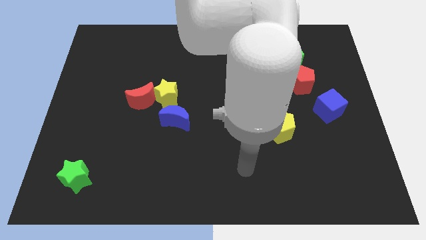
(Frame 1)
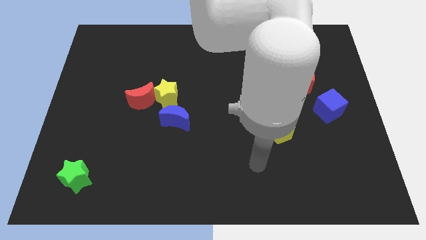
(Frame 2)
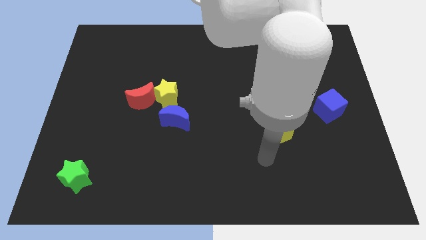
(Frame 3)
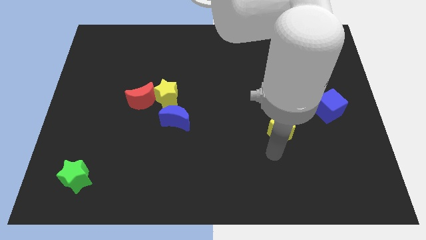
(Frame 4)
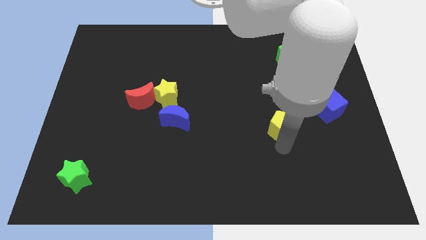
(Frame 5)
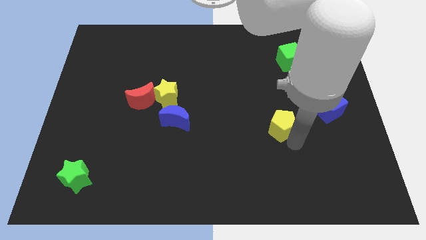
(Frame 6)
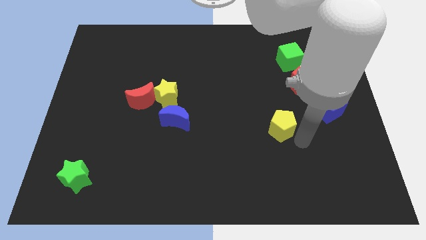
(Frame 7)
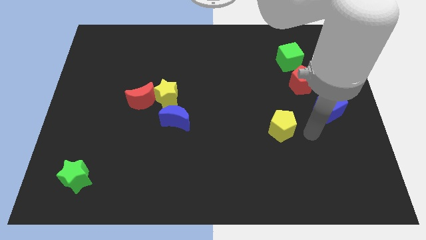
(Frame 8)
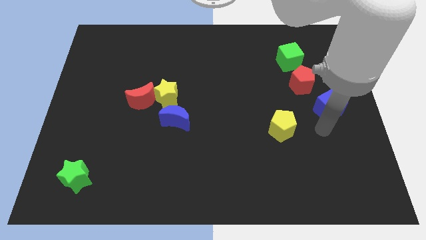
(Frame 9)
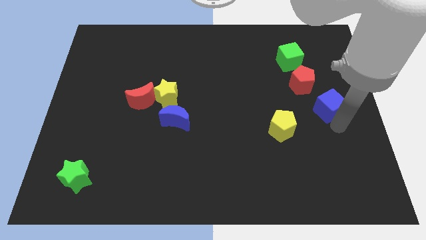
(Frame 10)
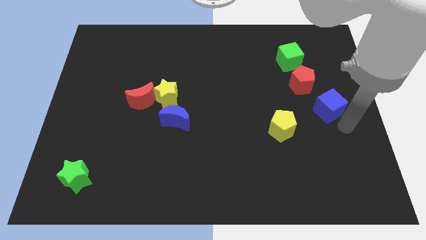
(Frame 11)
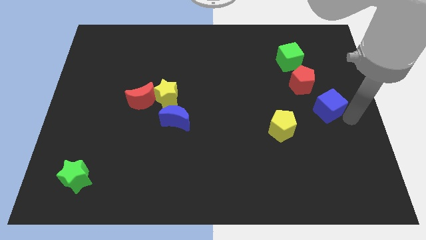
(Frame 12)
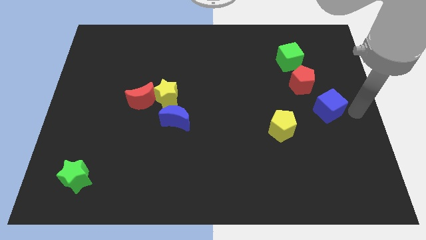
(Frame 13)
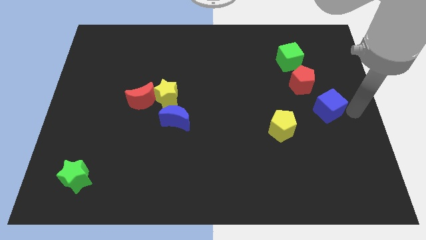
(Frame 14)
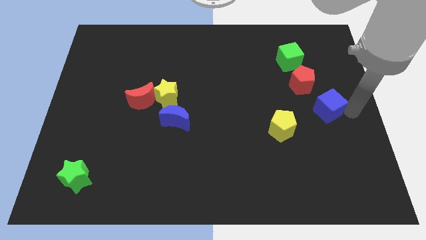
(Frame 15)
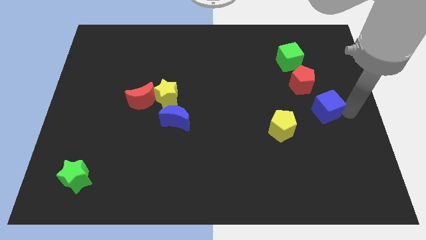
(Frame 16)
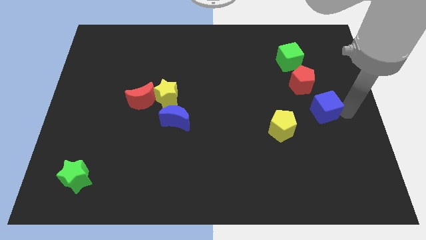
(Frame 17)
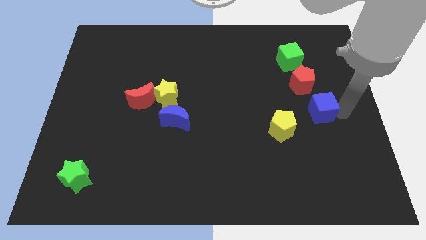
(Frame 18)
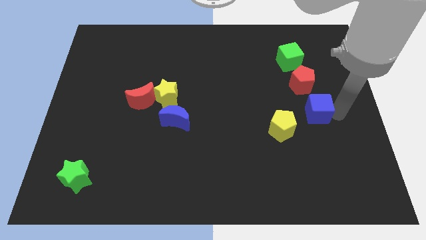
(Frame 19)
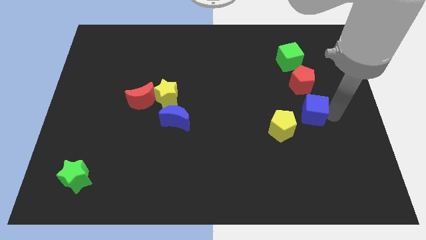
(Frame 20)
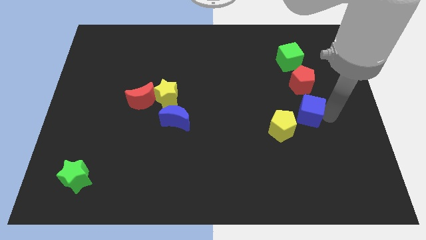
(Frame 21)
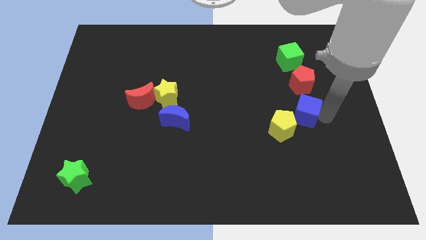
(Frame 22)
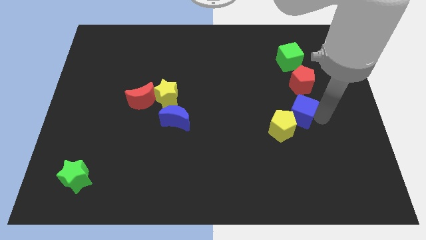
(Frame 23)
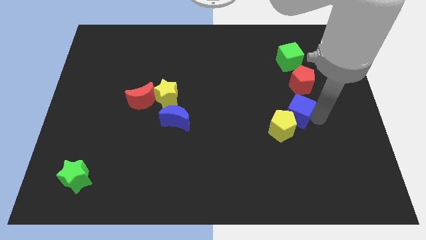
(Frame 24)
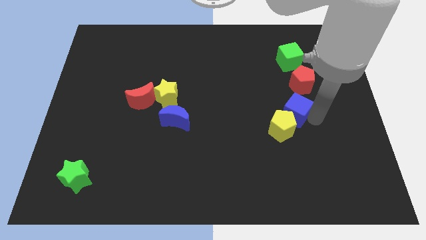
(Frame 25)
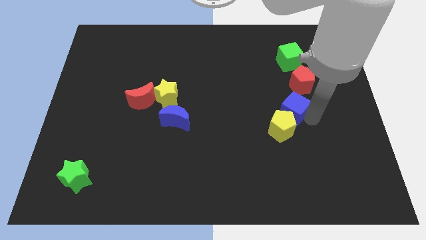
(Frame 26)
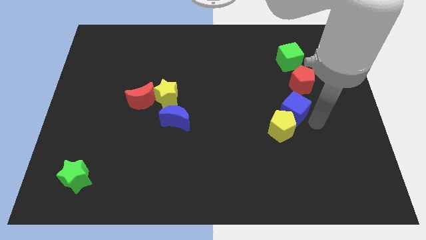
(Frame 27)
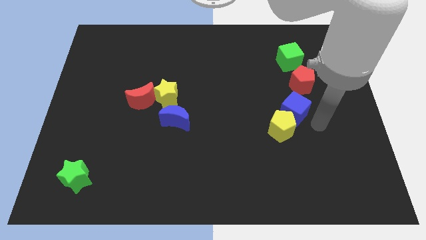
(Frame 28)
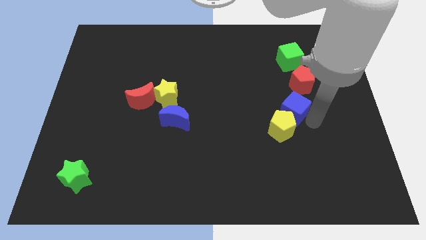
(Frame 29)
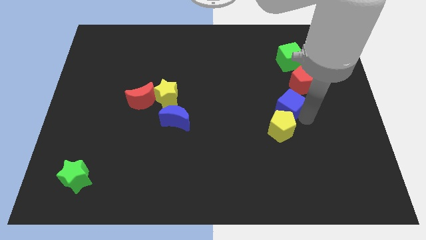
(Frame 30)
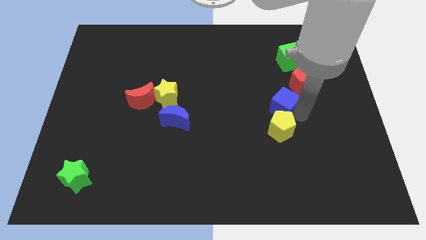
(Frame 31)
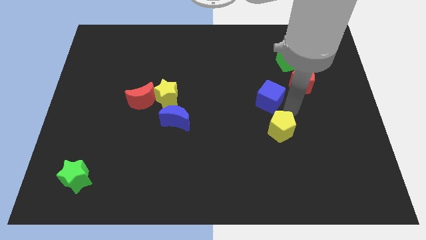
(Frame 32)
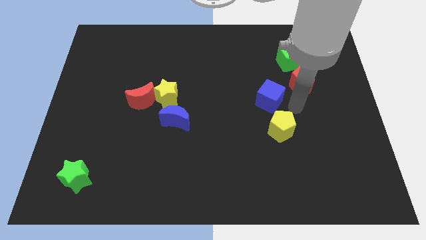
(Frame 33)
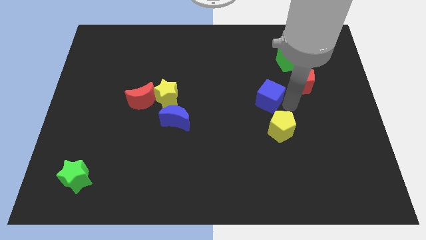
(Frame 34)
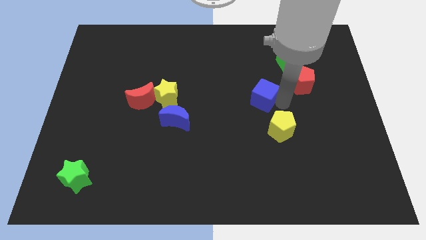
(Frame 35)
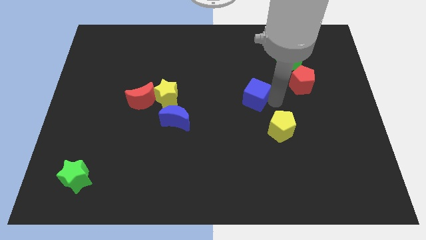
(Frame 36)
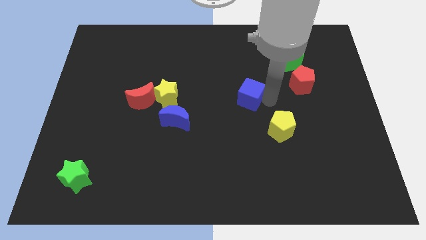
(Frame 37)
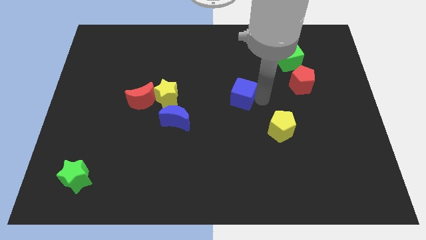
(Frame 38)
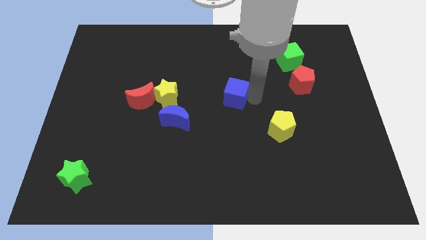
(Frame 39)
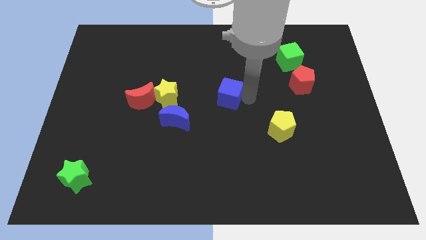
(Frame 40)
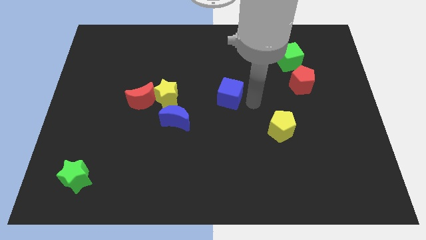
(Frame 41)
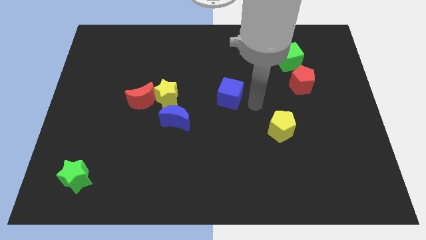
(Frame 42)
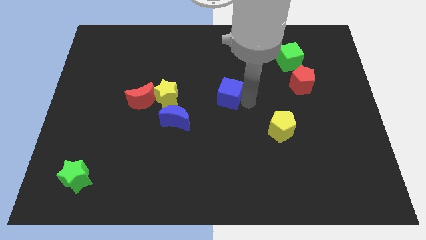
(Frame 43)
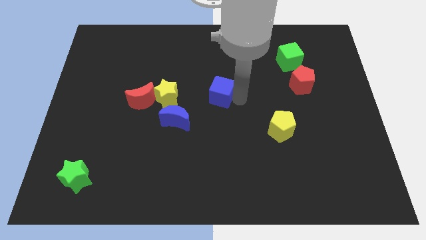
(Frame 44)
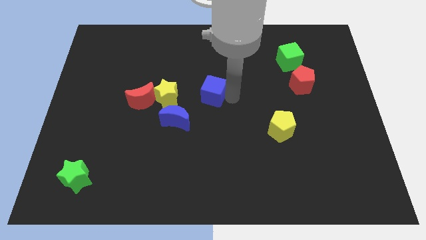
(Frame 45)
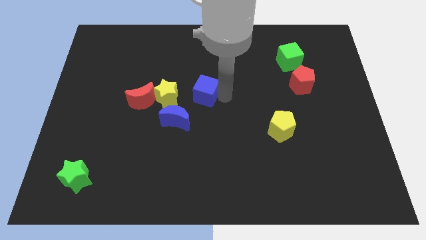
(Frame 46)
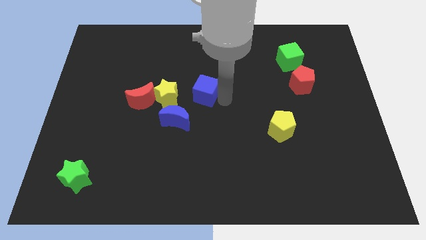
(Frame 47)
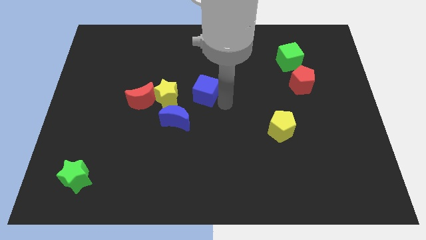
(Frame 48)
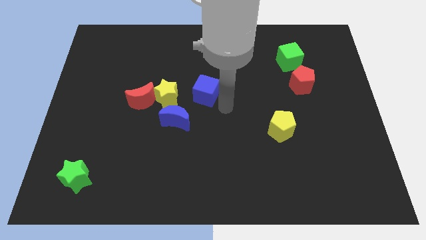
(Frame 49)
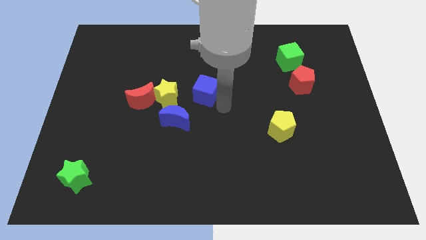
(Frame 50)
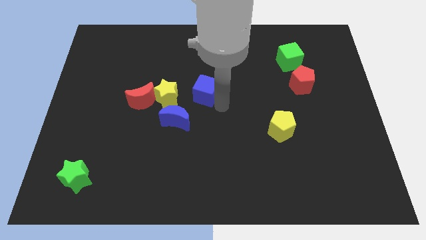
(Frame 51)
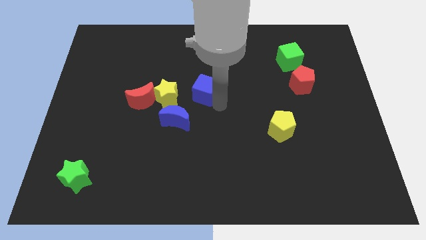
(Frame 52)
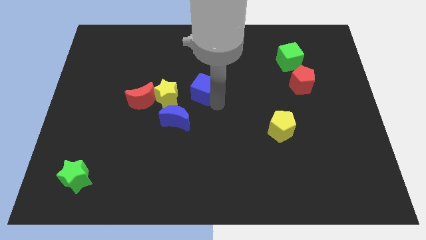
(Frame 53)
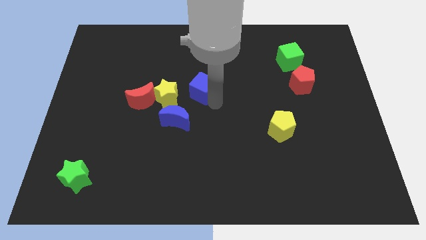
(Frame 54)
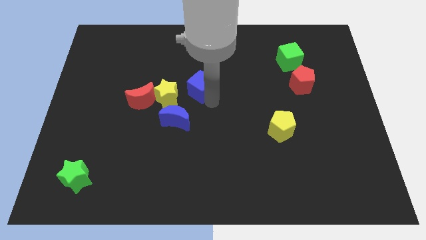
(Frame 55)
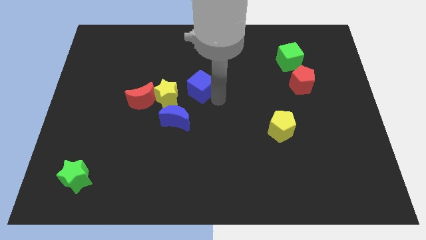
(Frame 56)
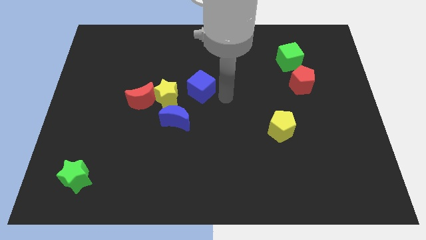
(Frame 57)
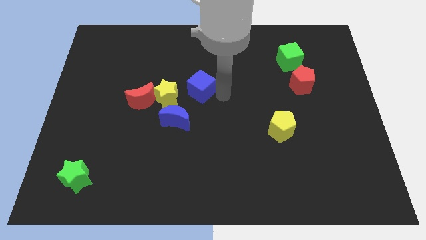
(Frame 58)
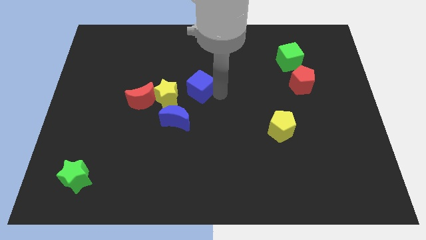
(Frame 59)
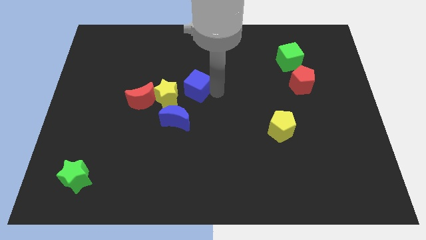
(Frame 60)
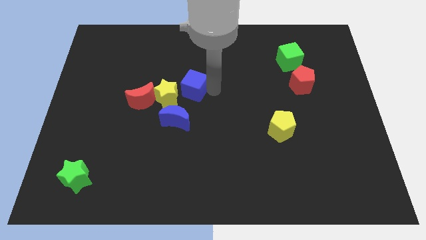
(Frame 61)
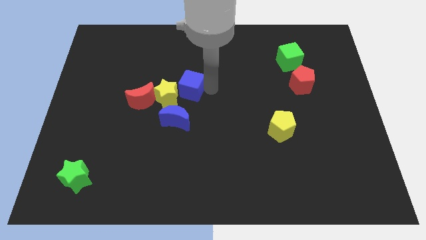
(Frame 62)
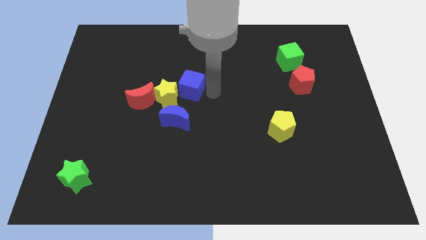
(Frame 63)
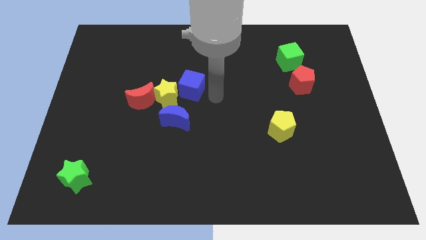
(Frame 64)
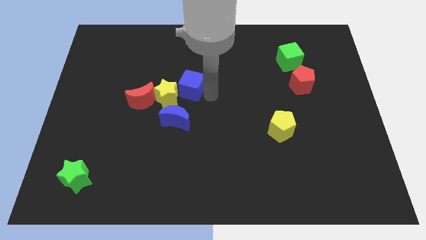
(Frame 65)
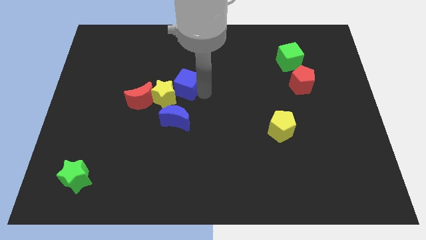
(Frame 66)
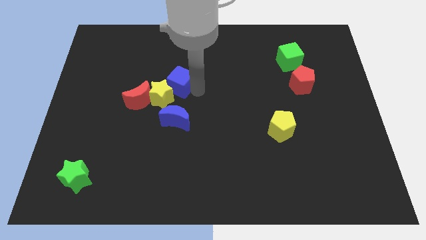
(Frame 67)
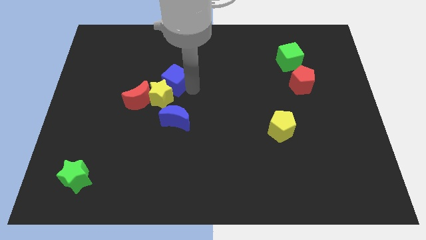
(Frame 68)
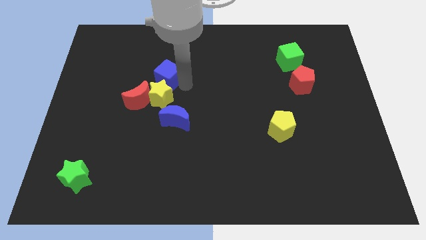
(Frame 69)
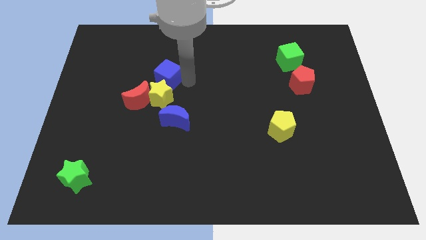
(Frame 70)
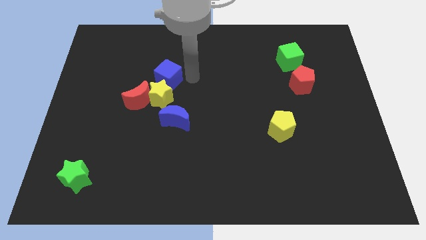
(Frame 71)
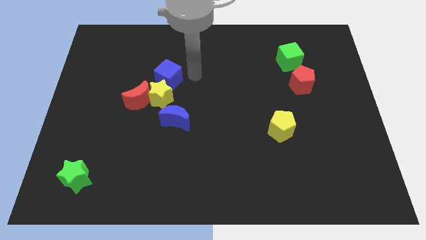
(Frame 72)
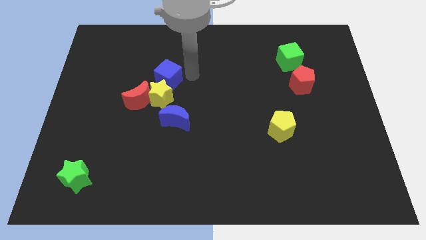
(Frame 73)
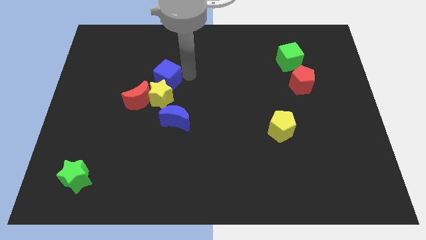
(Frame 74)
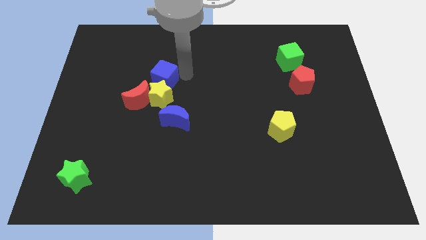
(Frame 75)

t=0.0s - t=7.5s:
move the blue cube to the top left side of the yellow star
